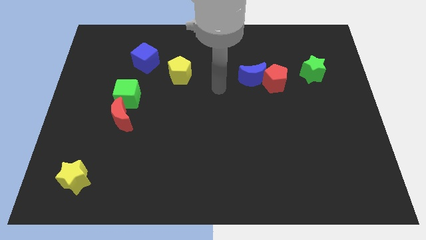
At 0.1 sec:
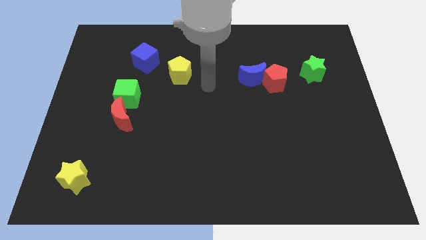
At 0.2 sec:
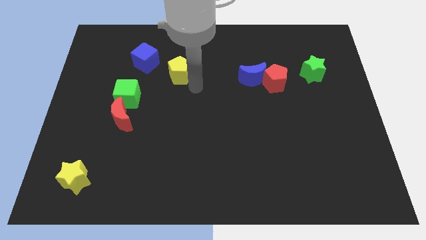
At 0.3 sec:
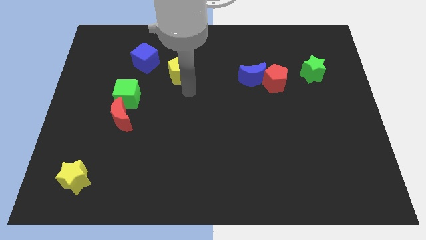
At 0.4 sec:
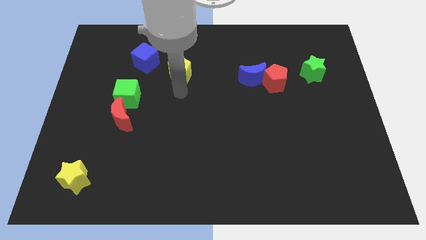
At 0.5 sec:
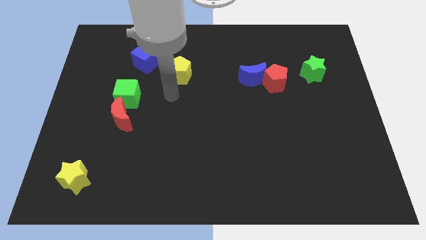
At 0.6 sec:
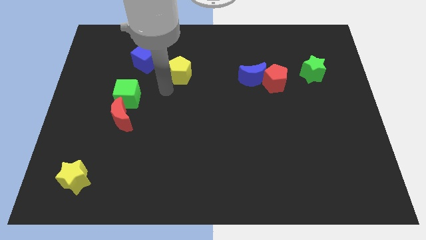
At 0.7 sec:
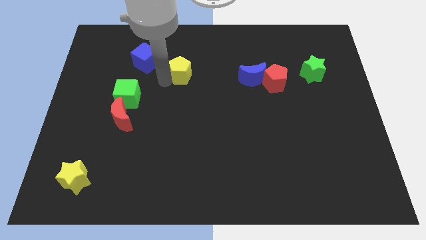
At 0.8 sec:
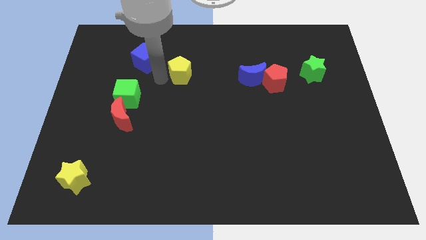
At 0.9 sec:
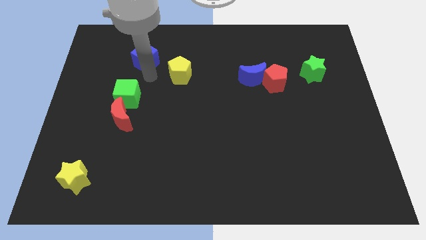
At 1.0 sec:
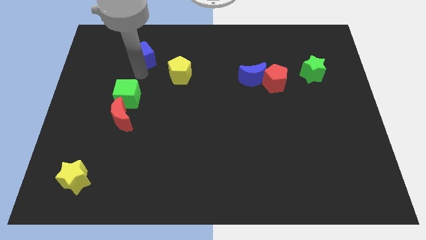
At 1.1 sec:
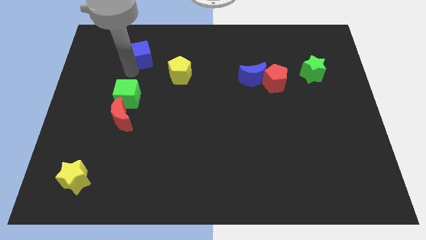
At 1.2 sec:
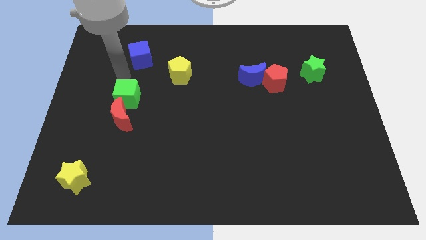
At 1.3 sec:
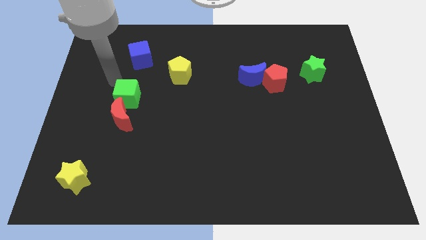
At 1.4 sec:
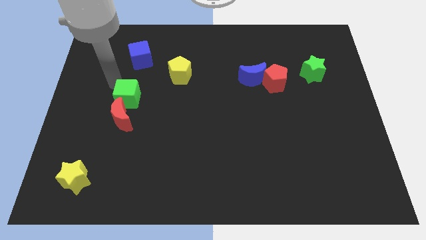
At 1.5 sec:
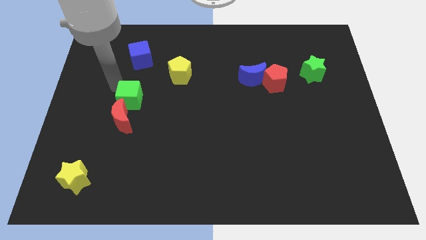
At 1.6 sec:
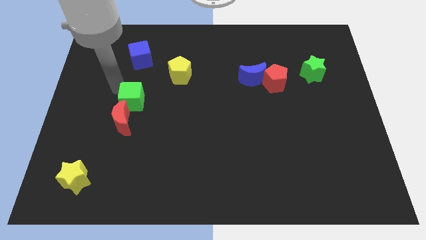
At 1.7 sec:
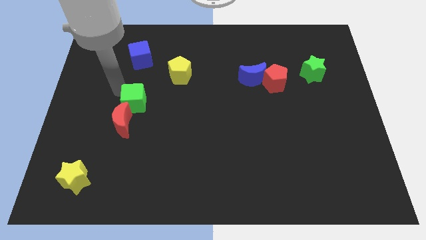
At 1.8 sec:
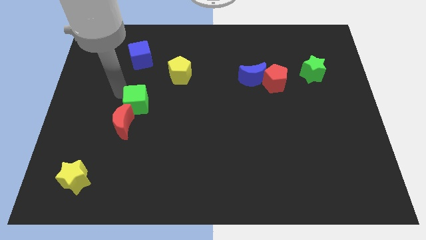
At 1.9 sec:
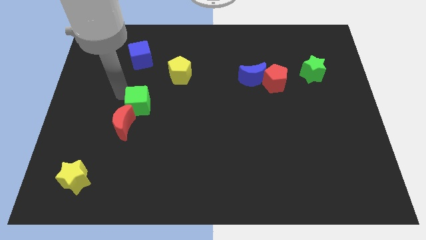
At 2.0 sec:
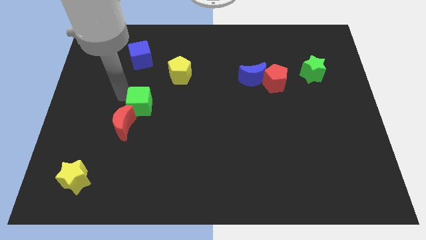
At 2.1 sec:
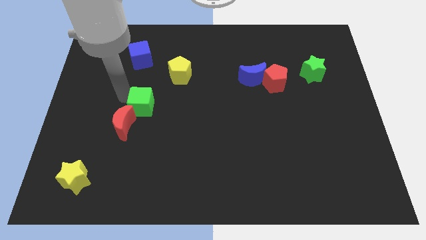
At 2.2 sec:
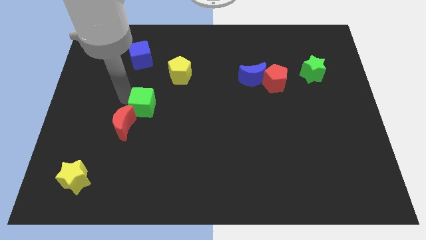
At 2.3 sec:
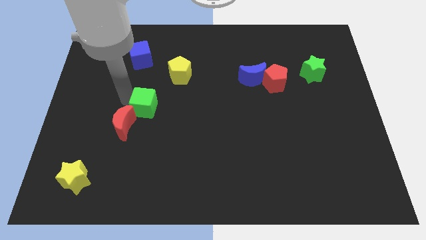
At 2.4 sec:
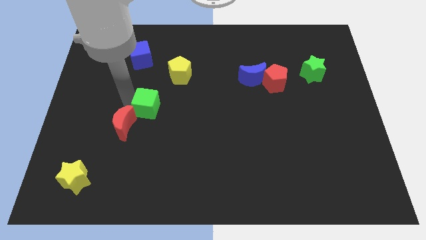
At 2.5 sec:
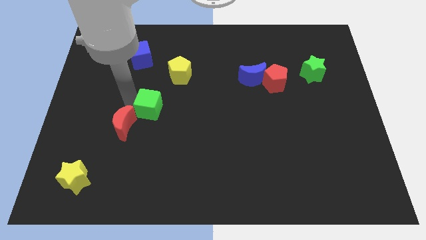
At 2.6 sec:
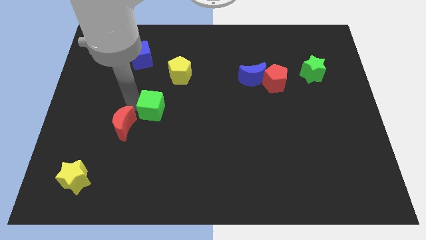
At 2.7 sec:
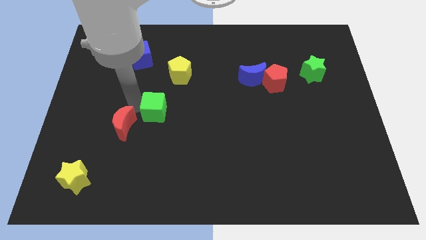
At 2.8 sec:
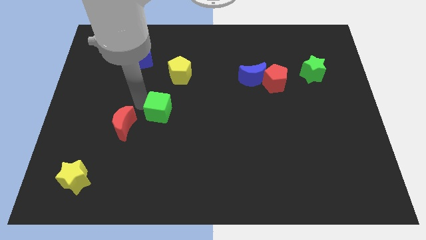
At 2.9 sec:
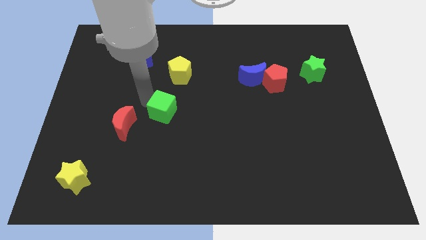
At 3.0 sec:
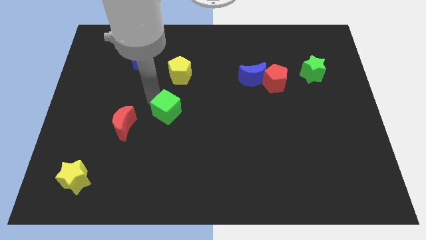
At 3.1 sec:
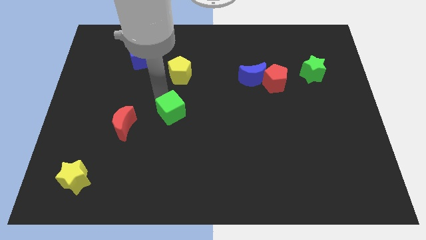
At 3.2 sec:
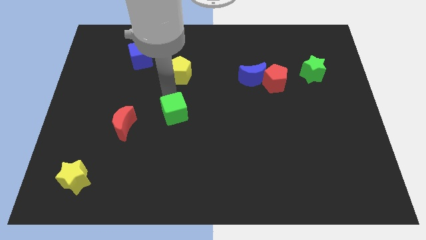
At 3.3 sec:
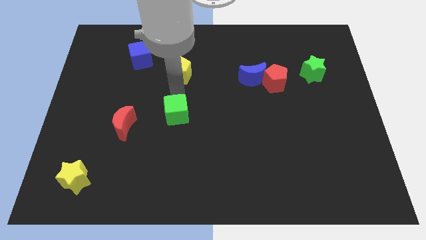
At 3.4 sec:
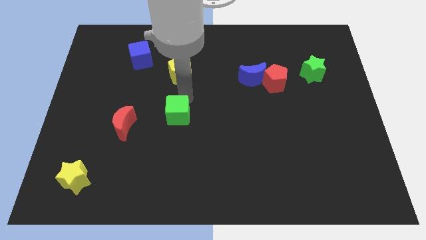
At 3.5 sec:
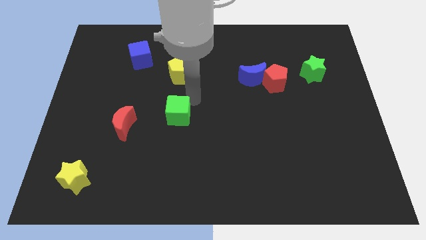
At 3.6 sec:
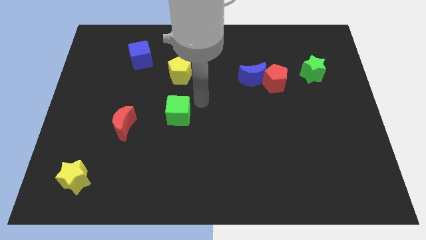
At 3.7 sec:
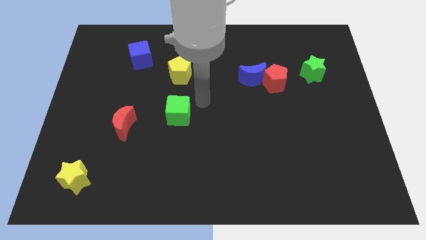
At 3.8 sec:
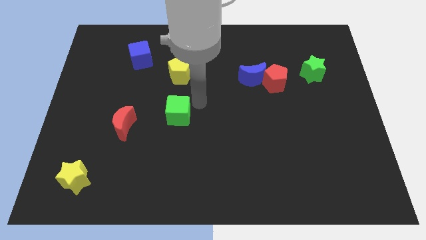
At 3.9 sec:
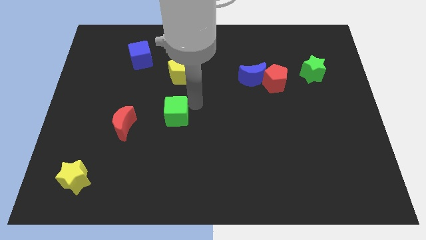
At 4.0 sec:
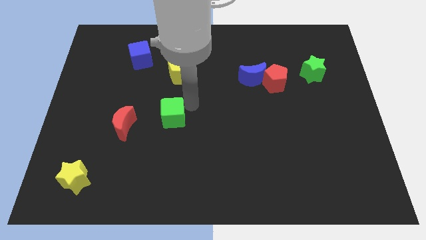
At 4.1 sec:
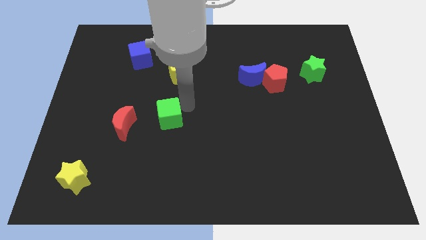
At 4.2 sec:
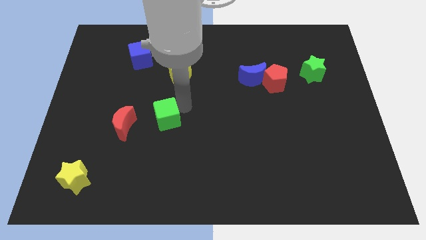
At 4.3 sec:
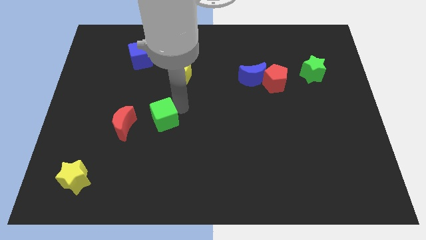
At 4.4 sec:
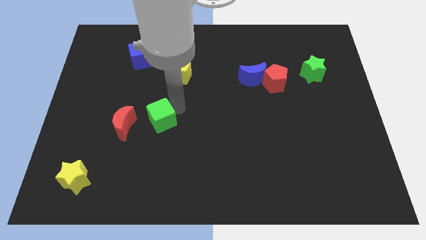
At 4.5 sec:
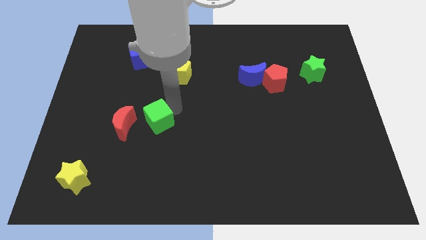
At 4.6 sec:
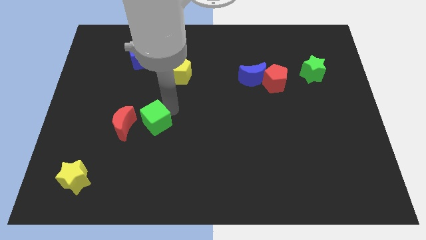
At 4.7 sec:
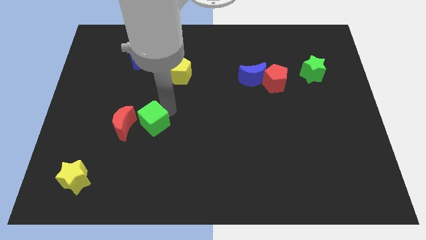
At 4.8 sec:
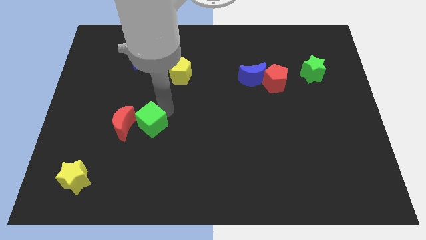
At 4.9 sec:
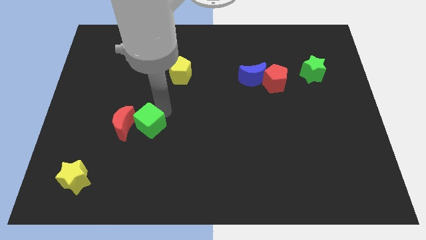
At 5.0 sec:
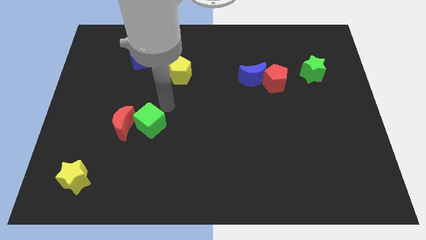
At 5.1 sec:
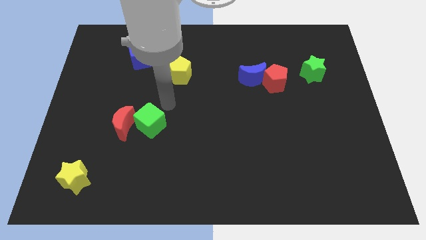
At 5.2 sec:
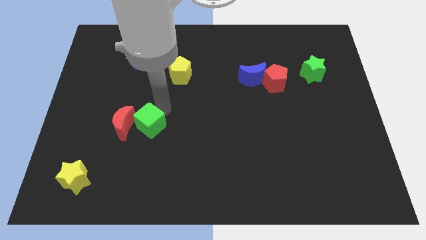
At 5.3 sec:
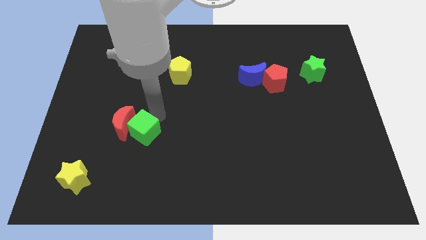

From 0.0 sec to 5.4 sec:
slightly push the green cube down

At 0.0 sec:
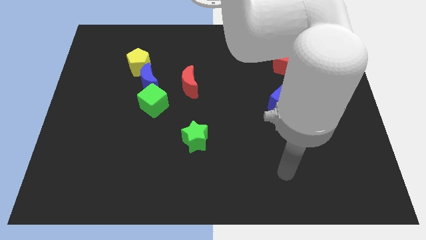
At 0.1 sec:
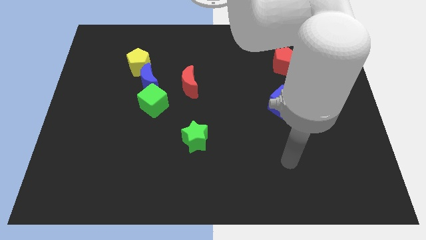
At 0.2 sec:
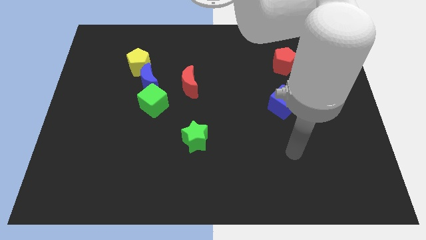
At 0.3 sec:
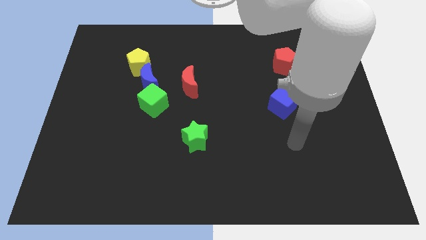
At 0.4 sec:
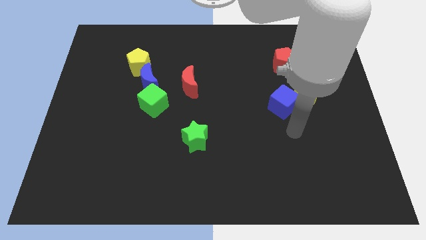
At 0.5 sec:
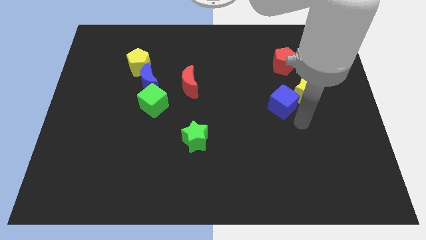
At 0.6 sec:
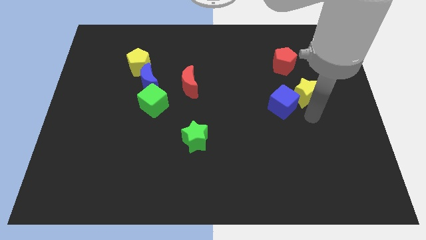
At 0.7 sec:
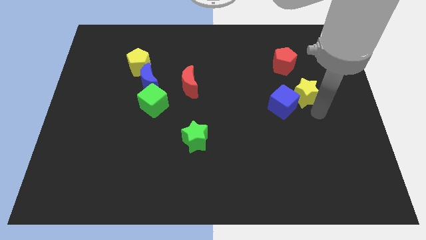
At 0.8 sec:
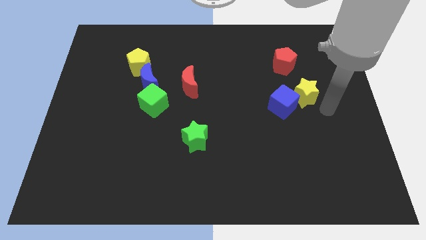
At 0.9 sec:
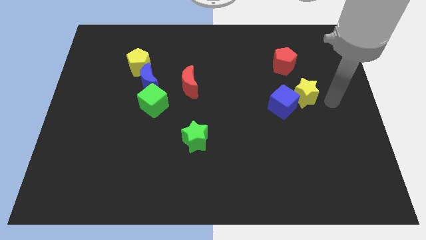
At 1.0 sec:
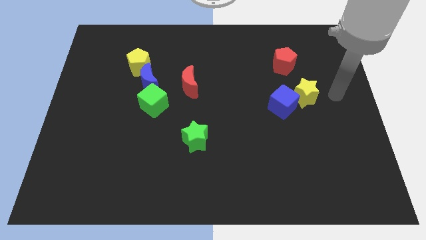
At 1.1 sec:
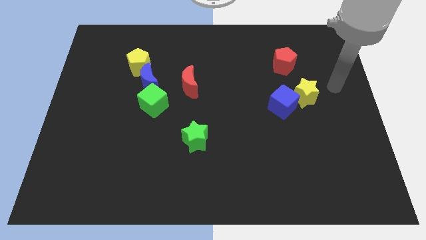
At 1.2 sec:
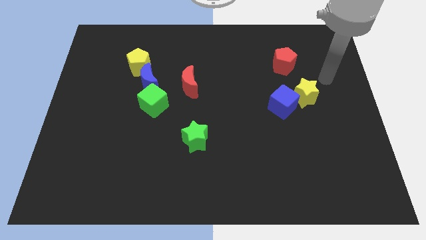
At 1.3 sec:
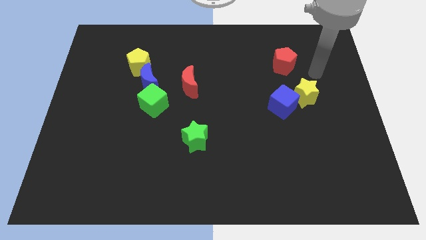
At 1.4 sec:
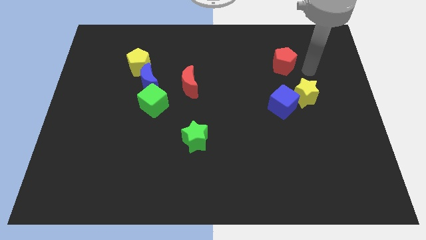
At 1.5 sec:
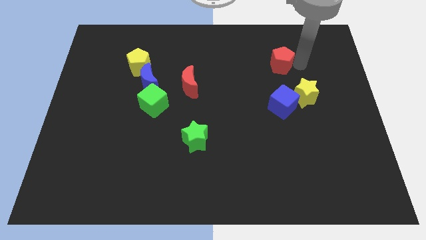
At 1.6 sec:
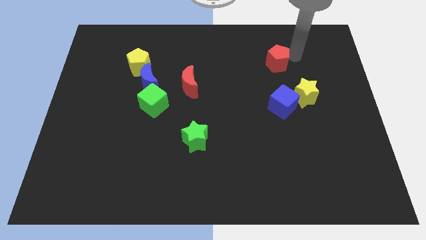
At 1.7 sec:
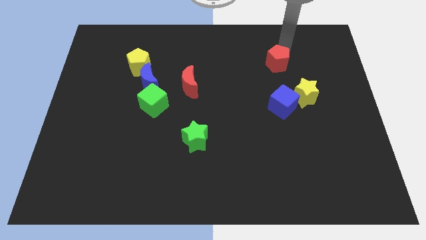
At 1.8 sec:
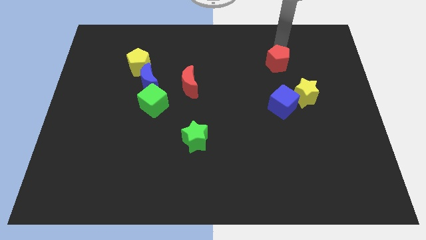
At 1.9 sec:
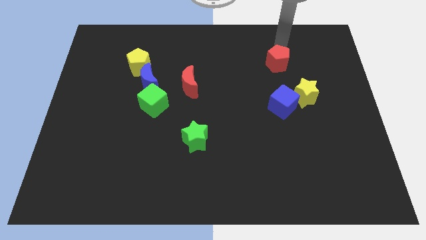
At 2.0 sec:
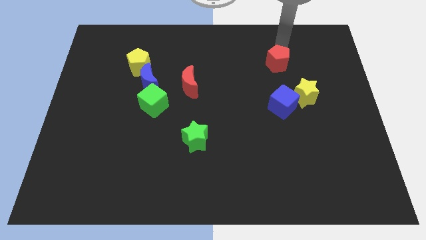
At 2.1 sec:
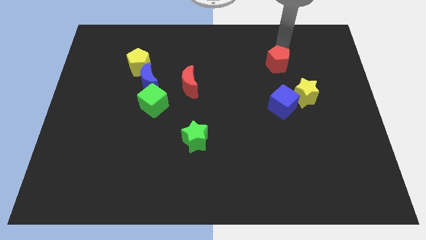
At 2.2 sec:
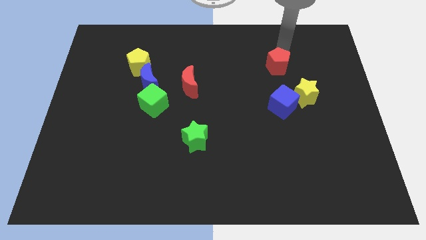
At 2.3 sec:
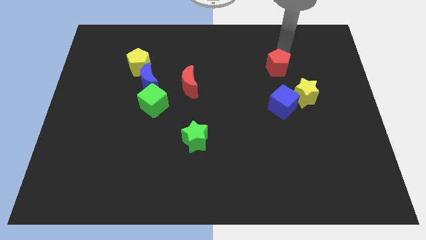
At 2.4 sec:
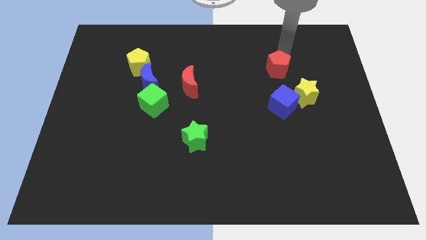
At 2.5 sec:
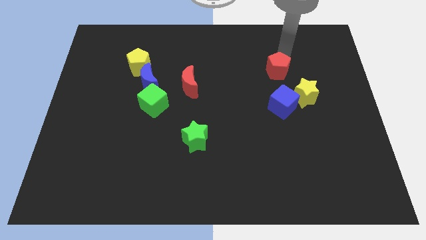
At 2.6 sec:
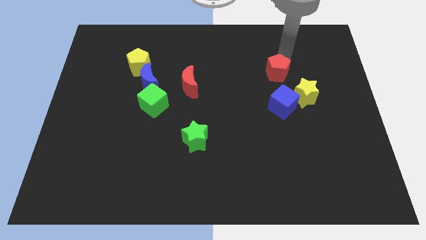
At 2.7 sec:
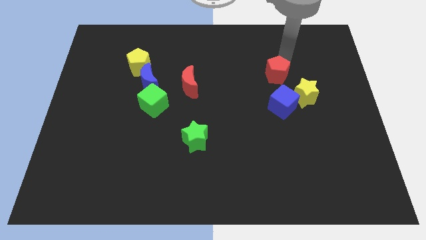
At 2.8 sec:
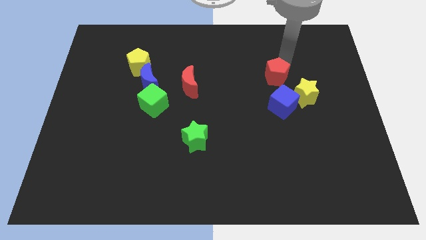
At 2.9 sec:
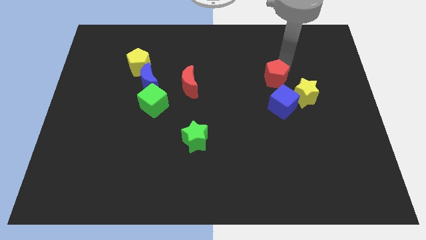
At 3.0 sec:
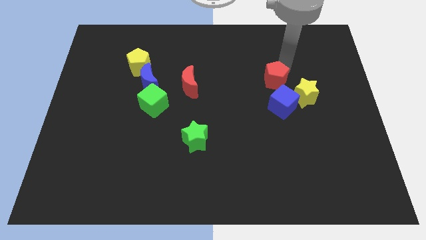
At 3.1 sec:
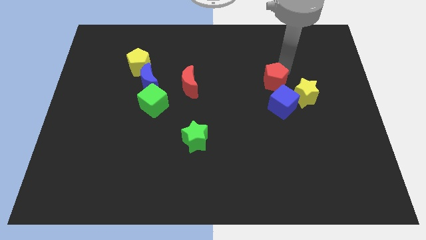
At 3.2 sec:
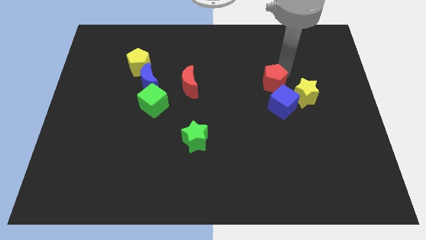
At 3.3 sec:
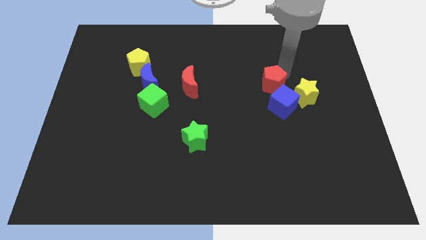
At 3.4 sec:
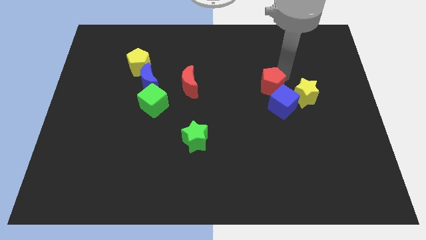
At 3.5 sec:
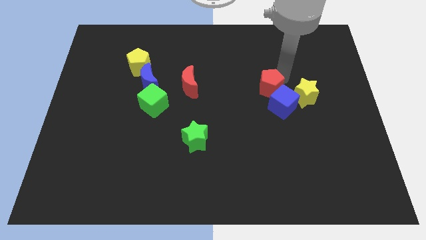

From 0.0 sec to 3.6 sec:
slide the red pentagon somewhat down
